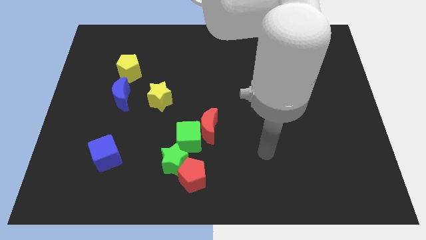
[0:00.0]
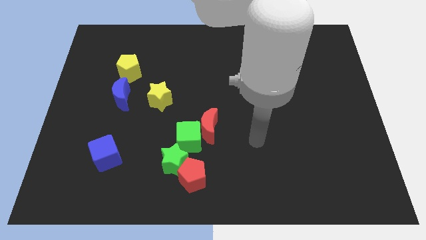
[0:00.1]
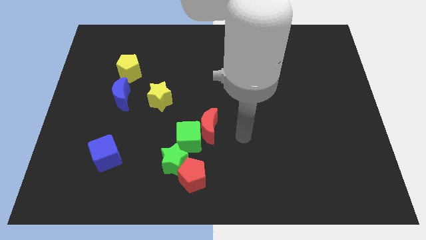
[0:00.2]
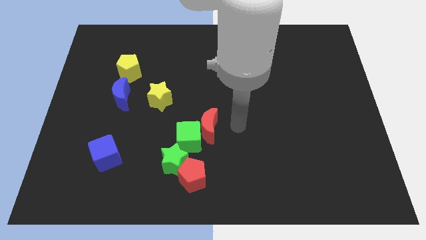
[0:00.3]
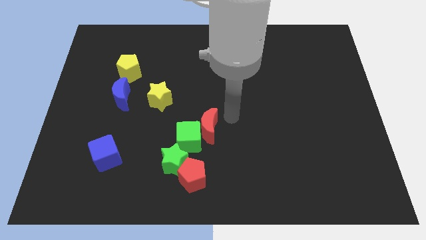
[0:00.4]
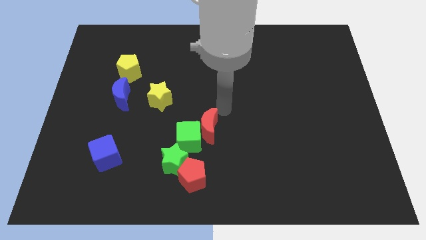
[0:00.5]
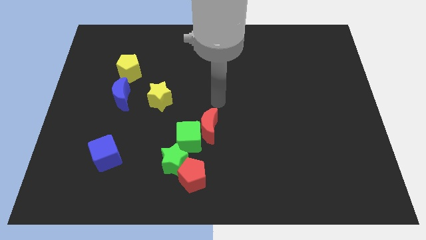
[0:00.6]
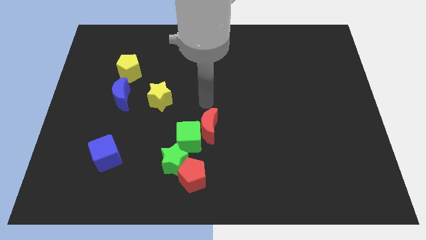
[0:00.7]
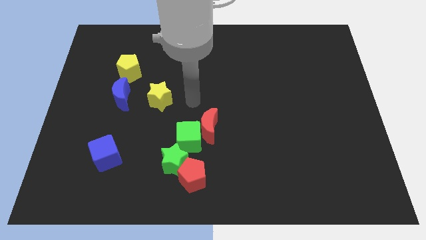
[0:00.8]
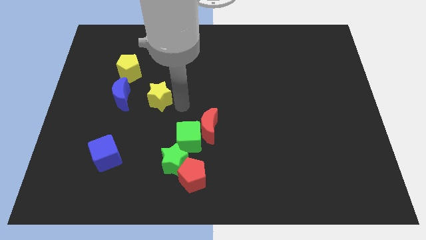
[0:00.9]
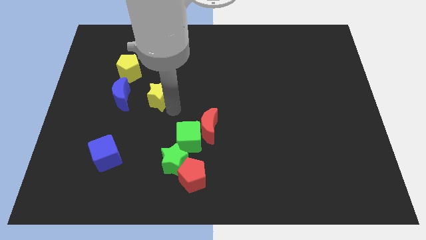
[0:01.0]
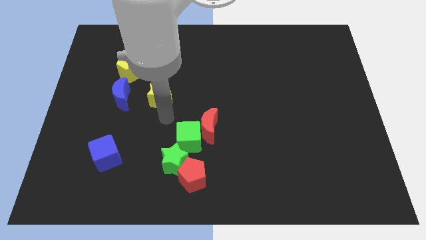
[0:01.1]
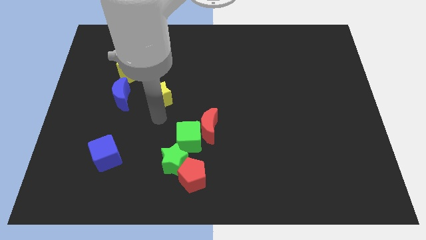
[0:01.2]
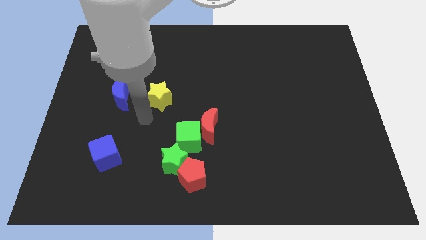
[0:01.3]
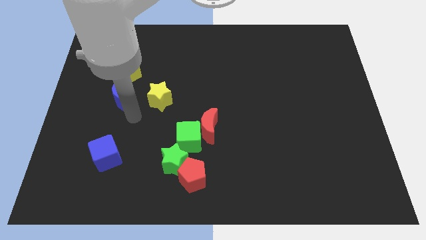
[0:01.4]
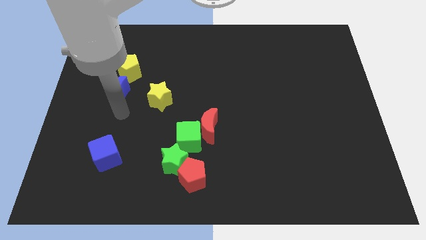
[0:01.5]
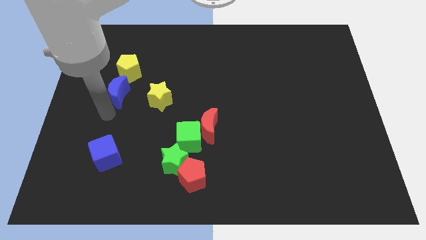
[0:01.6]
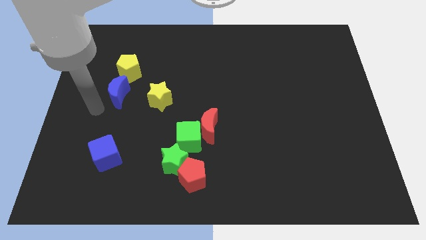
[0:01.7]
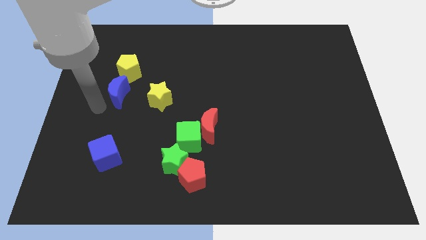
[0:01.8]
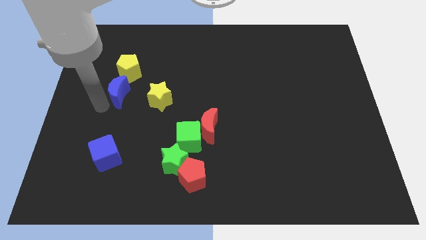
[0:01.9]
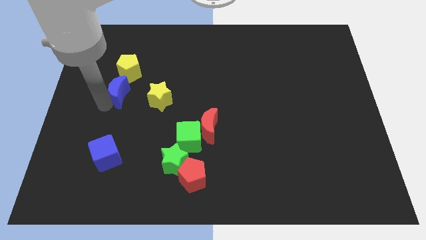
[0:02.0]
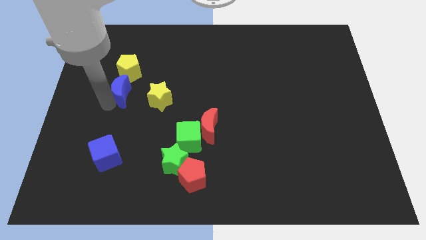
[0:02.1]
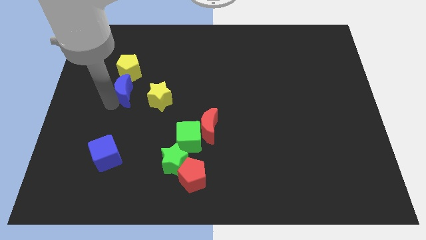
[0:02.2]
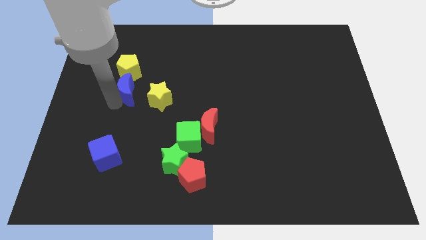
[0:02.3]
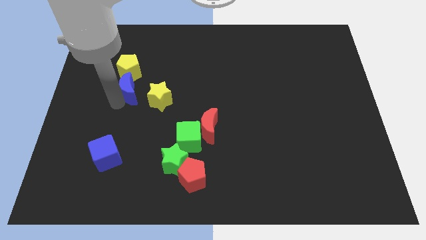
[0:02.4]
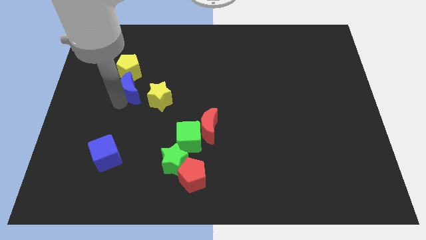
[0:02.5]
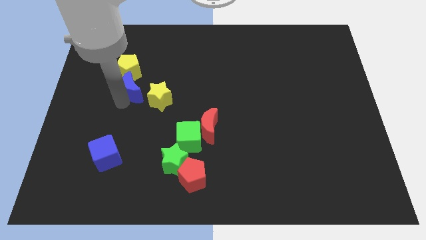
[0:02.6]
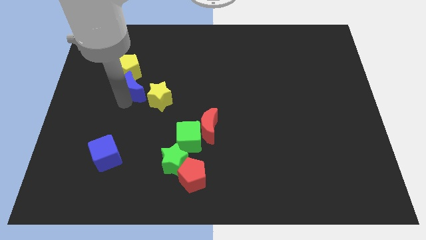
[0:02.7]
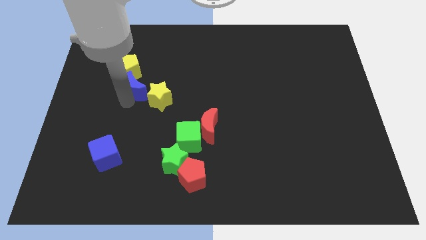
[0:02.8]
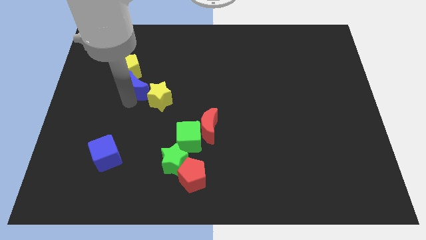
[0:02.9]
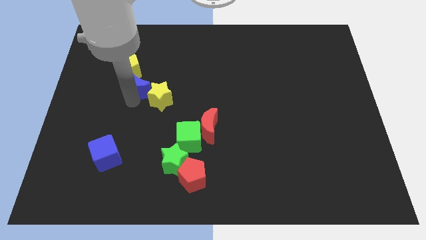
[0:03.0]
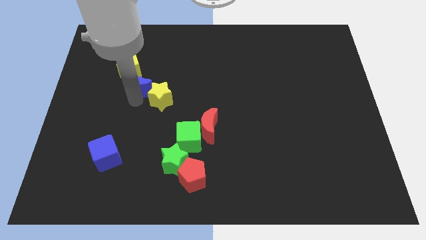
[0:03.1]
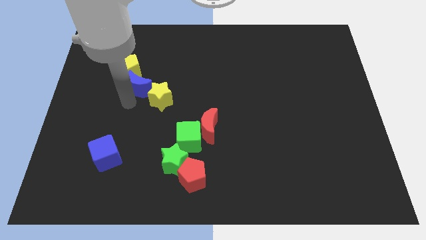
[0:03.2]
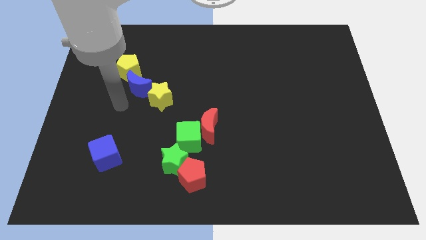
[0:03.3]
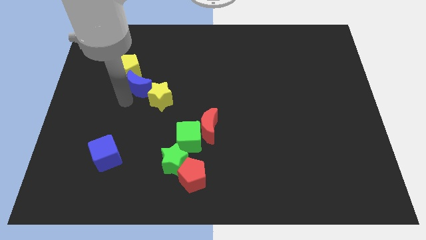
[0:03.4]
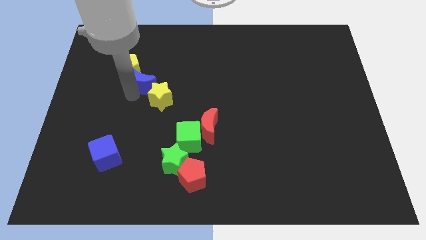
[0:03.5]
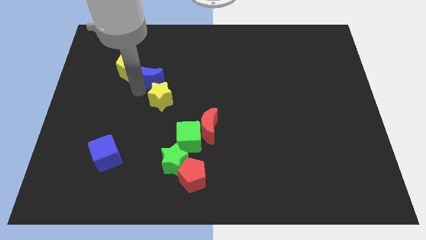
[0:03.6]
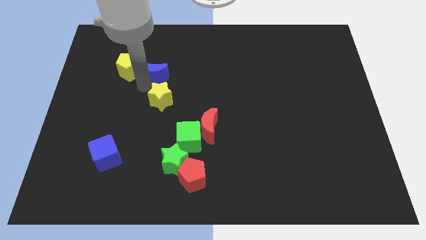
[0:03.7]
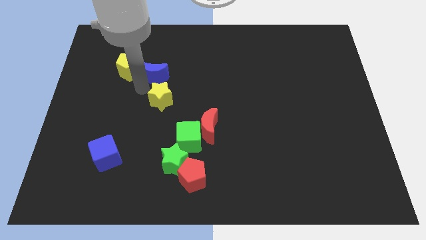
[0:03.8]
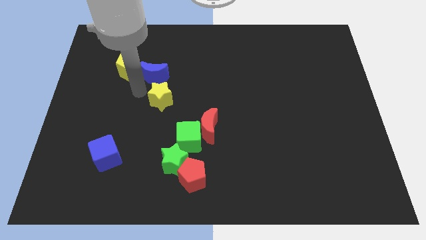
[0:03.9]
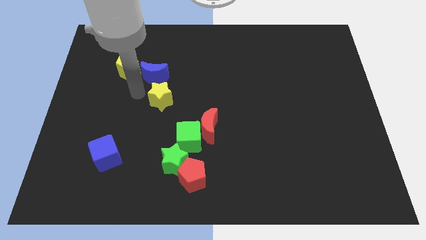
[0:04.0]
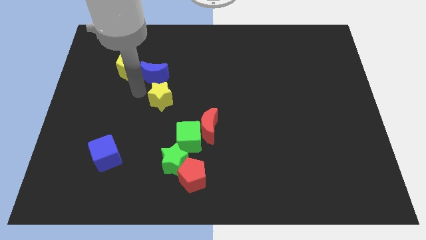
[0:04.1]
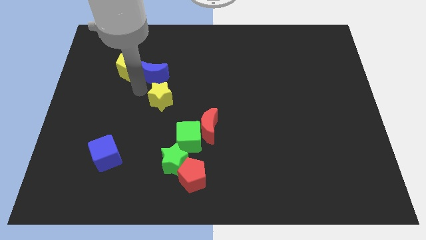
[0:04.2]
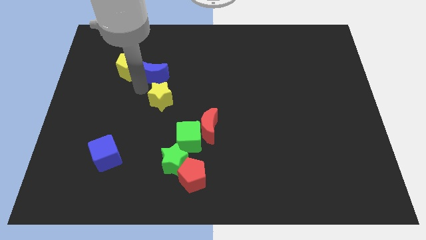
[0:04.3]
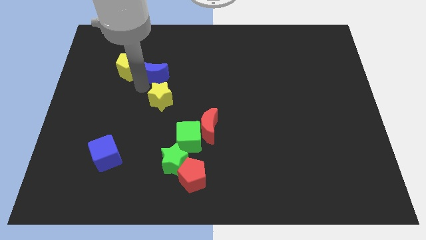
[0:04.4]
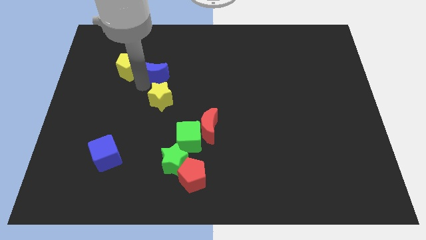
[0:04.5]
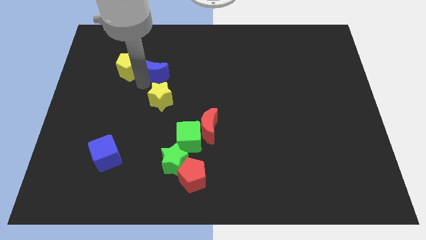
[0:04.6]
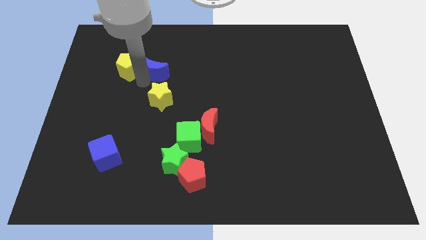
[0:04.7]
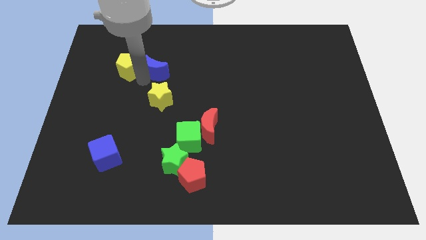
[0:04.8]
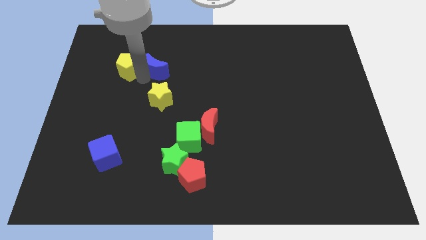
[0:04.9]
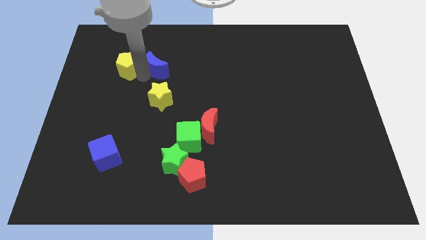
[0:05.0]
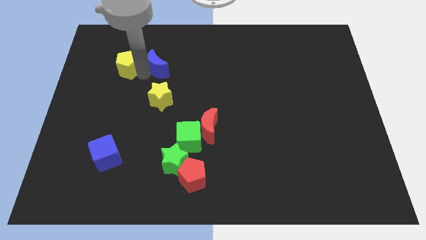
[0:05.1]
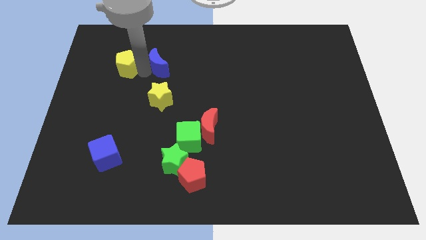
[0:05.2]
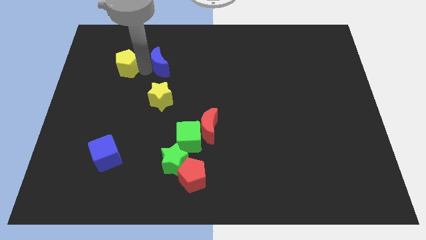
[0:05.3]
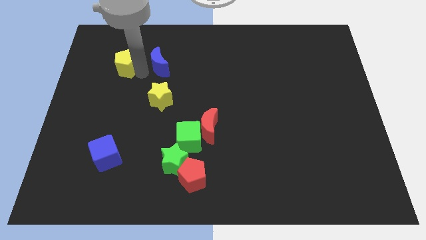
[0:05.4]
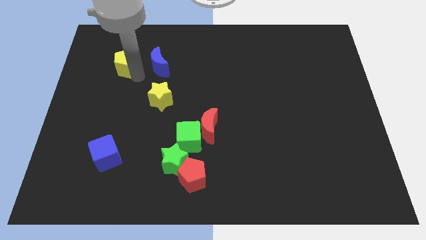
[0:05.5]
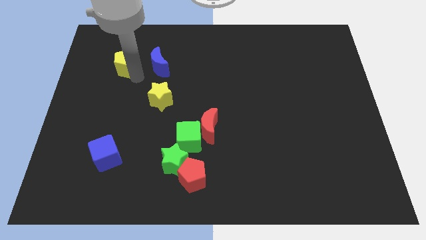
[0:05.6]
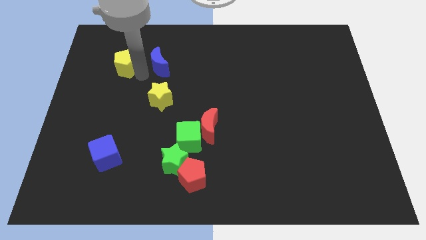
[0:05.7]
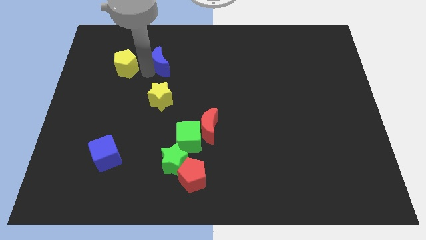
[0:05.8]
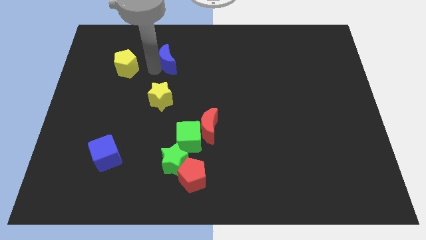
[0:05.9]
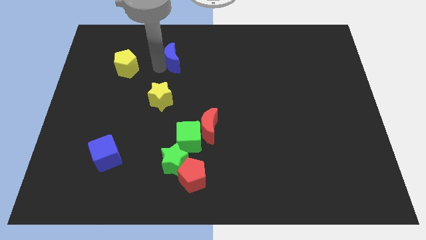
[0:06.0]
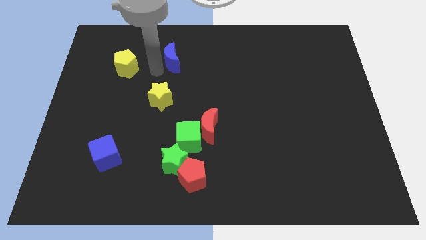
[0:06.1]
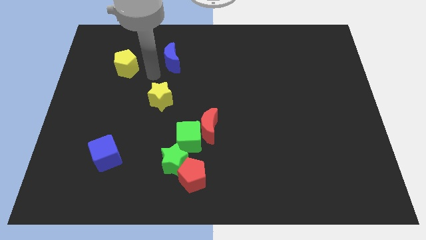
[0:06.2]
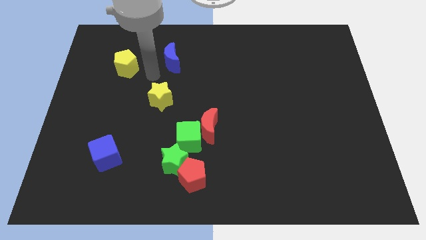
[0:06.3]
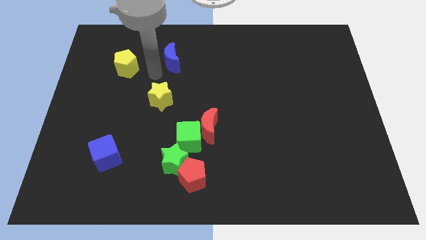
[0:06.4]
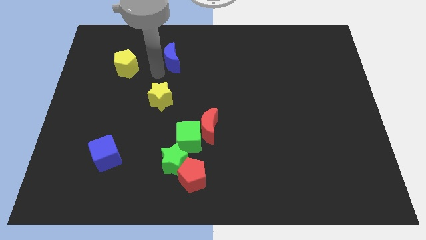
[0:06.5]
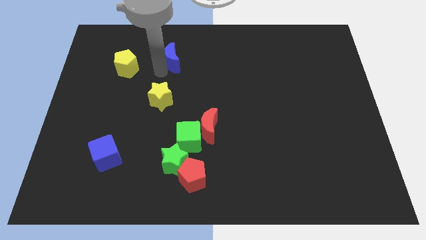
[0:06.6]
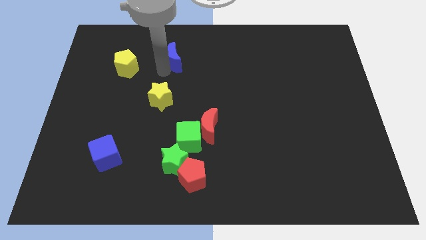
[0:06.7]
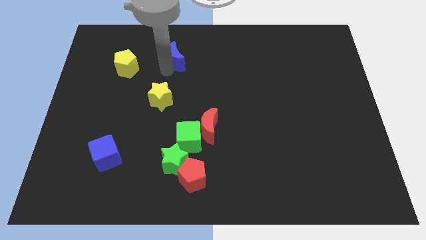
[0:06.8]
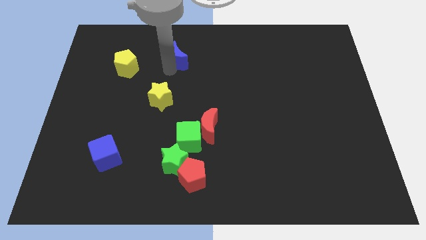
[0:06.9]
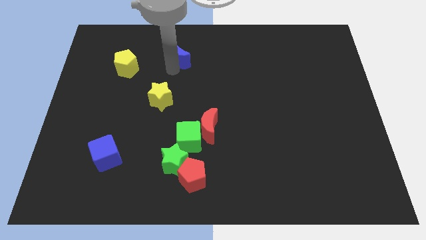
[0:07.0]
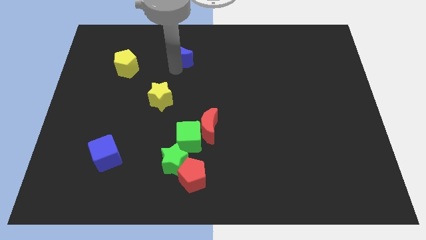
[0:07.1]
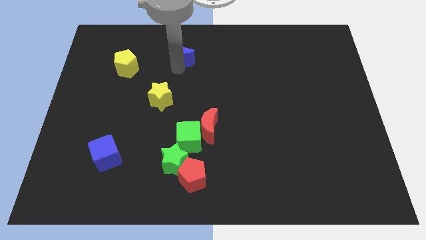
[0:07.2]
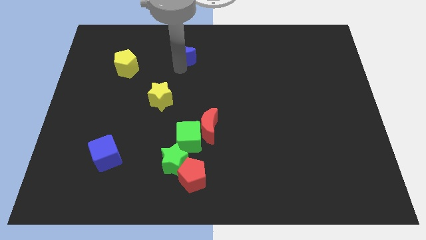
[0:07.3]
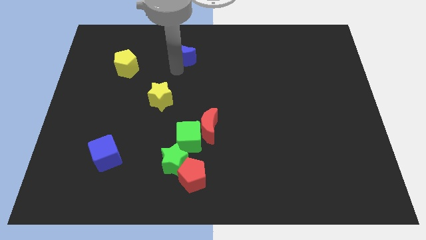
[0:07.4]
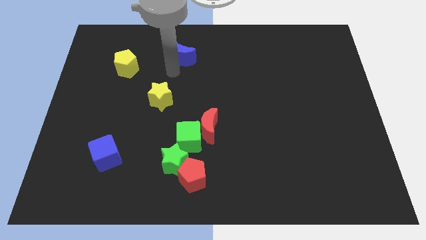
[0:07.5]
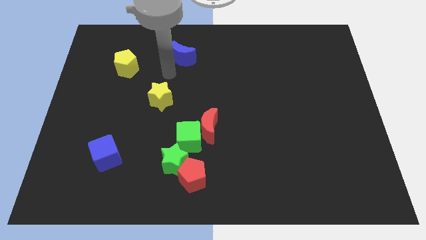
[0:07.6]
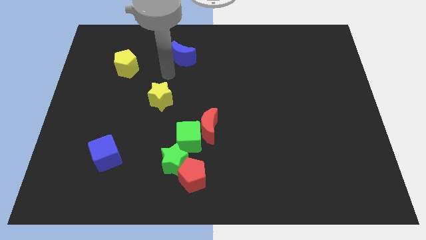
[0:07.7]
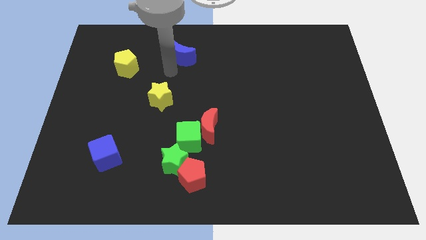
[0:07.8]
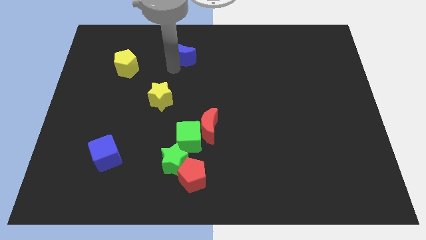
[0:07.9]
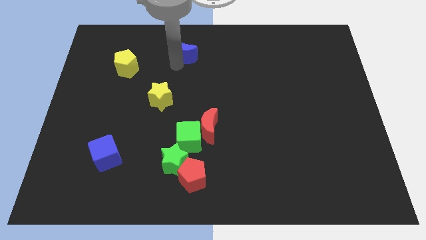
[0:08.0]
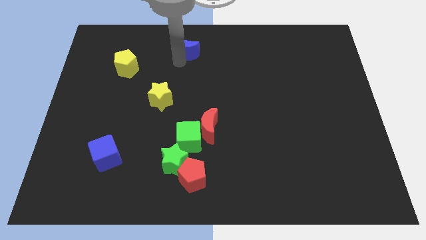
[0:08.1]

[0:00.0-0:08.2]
push the blue moon to the top side
